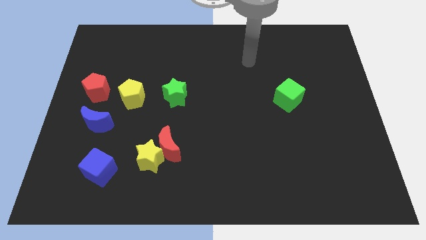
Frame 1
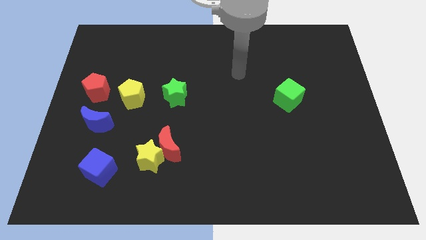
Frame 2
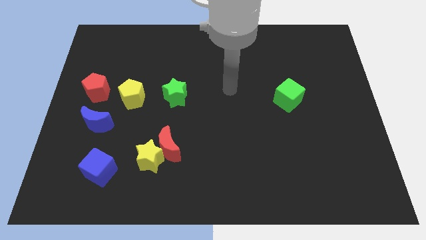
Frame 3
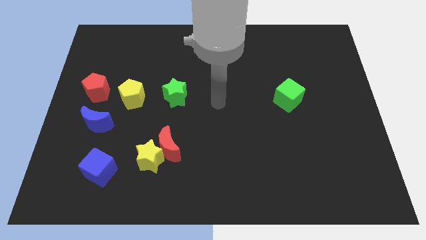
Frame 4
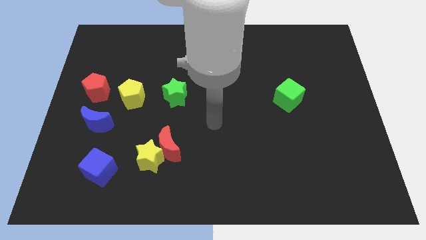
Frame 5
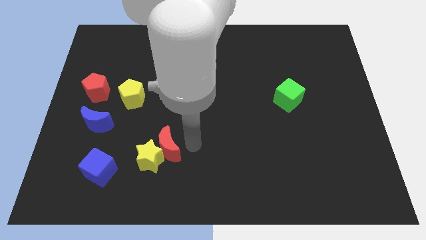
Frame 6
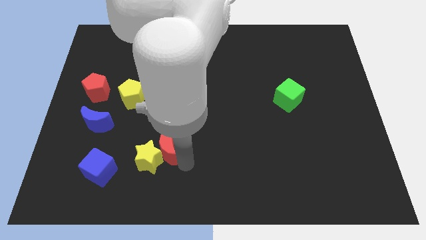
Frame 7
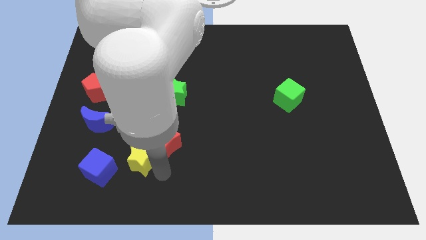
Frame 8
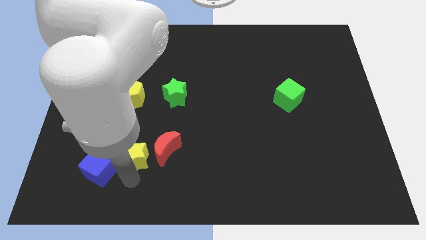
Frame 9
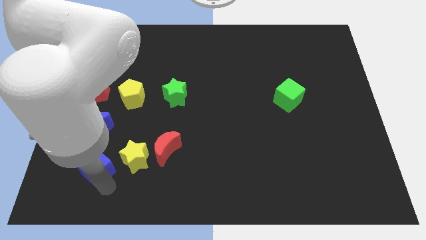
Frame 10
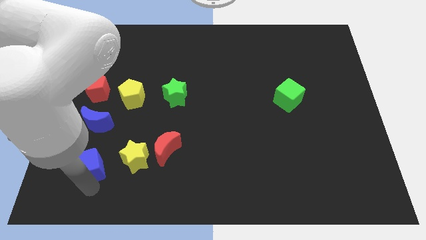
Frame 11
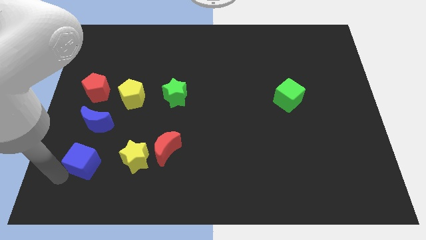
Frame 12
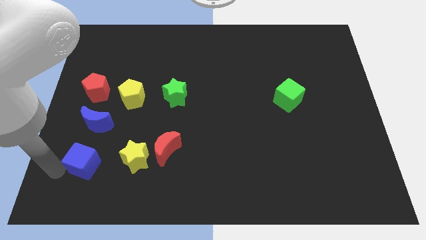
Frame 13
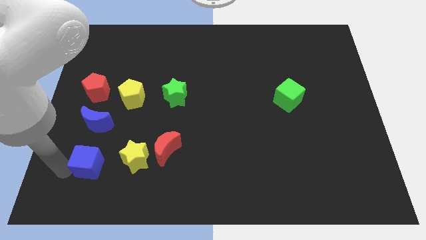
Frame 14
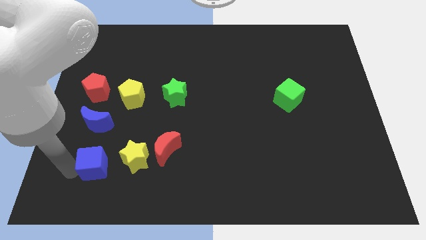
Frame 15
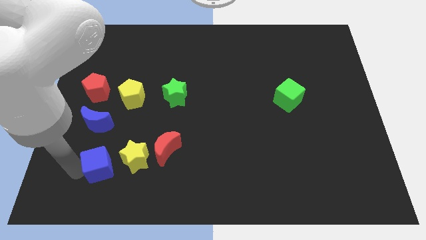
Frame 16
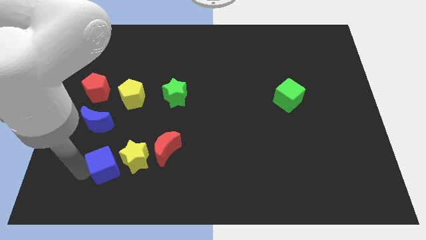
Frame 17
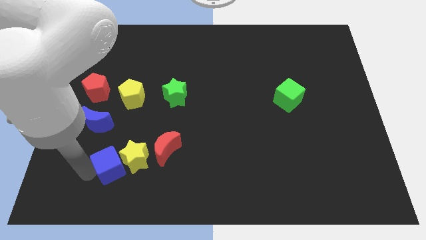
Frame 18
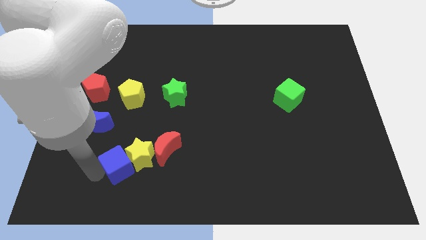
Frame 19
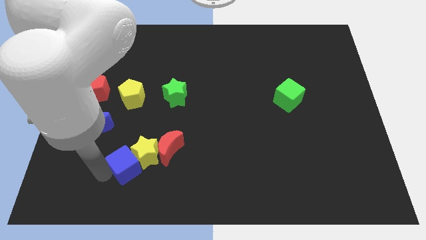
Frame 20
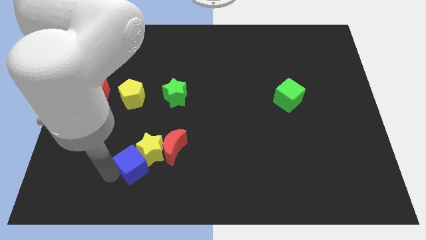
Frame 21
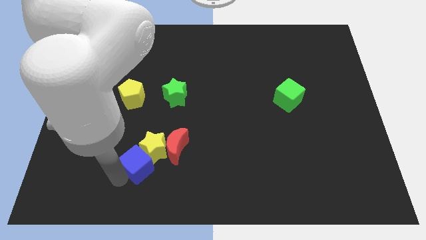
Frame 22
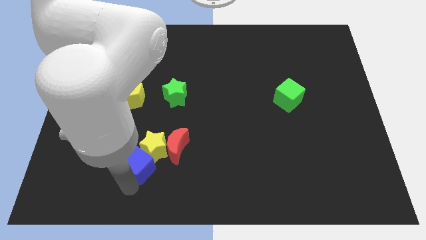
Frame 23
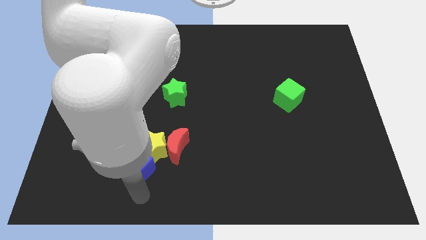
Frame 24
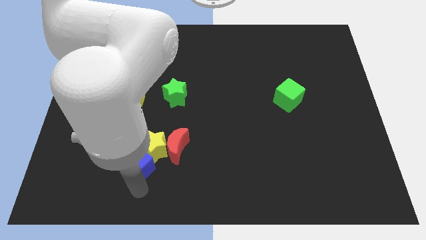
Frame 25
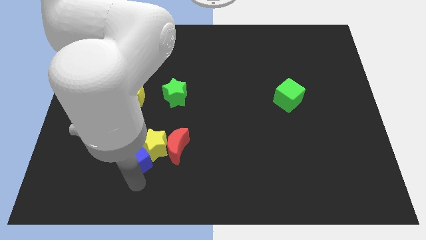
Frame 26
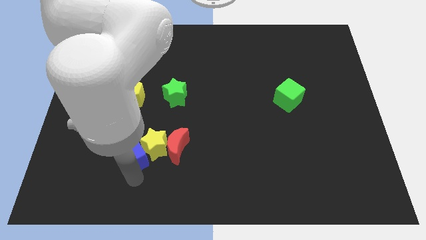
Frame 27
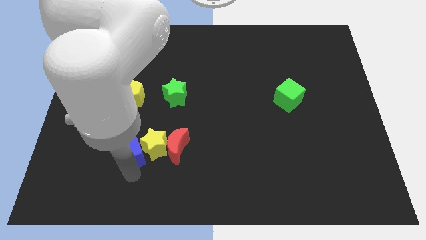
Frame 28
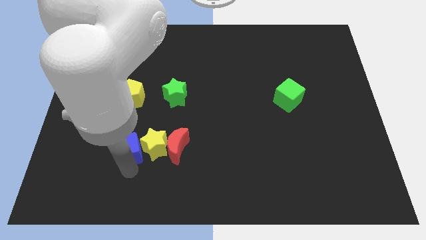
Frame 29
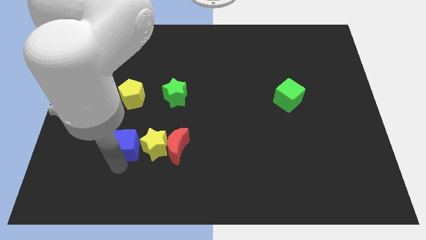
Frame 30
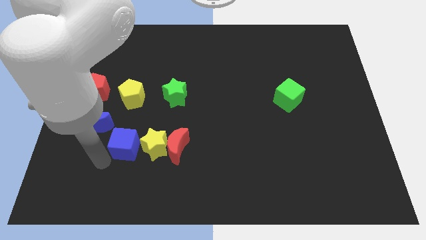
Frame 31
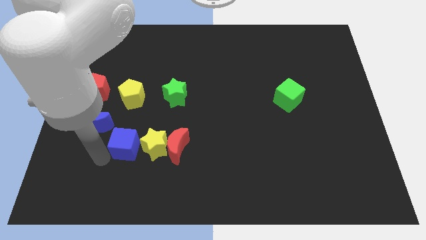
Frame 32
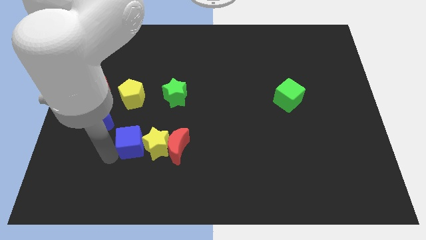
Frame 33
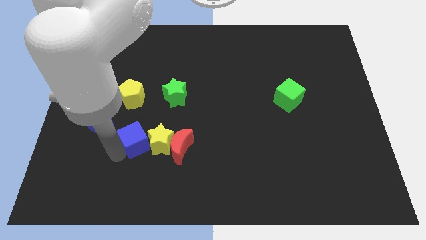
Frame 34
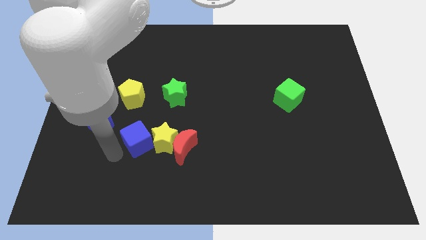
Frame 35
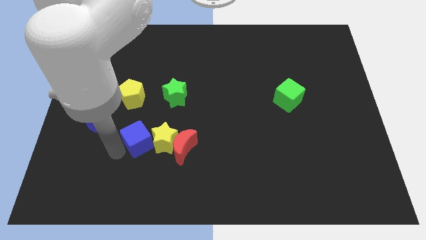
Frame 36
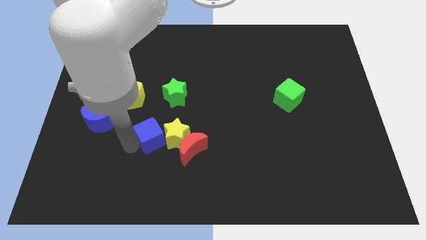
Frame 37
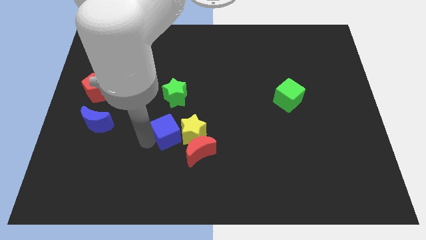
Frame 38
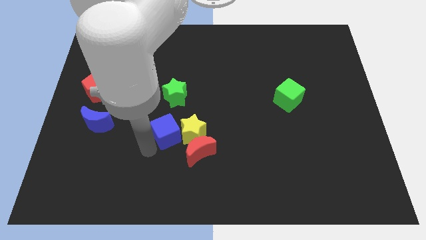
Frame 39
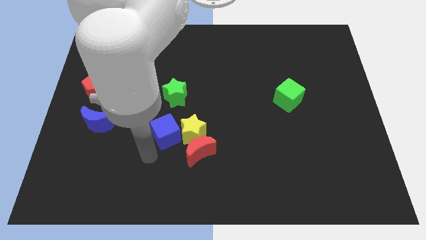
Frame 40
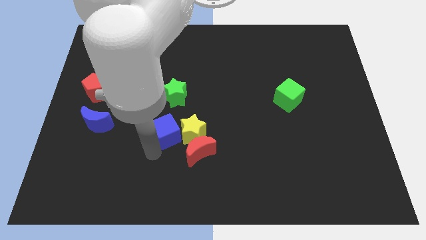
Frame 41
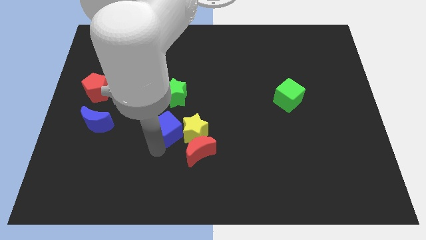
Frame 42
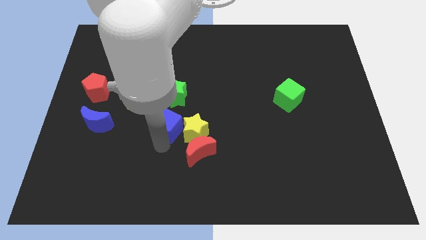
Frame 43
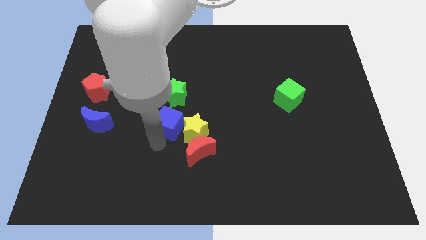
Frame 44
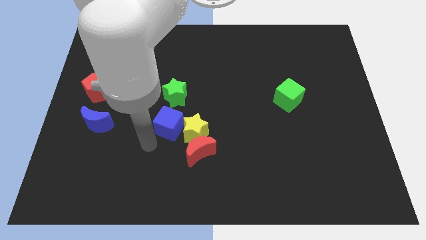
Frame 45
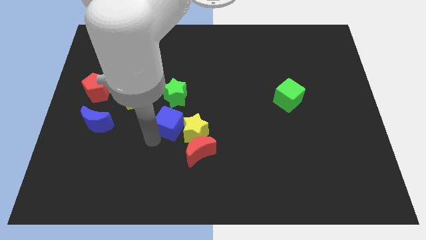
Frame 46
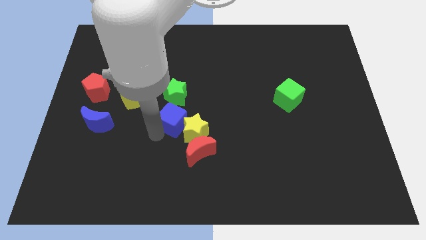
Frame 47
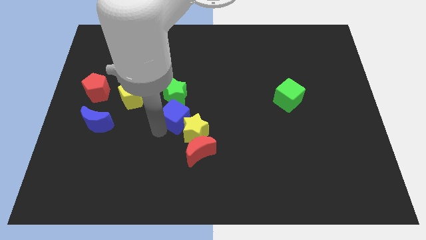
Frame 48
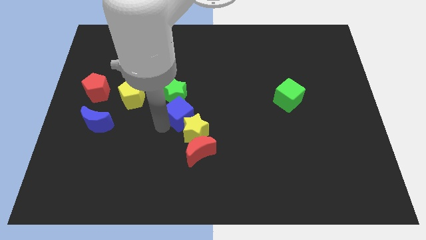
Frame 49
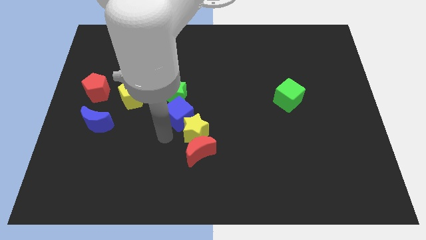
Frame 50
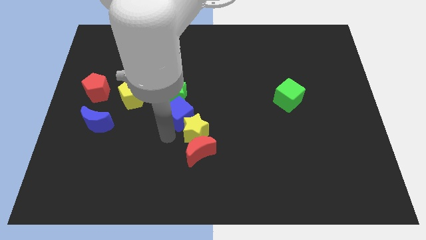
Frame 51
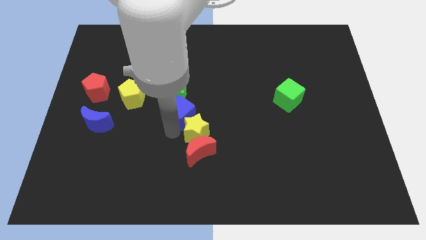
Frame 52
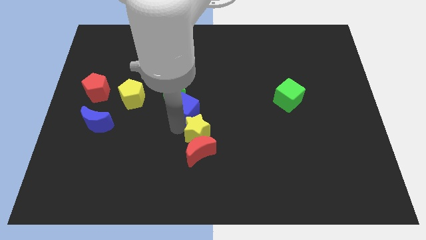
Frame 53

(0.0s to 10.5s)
move the blue cube to the right side of the yellow pentagon

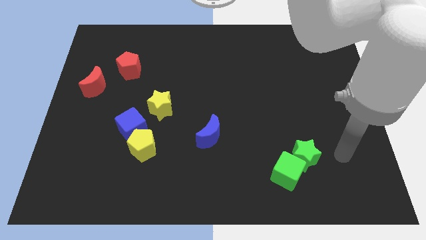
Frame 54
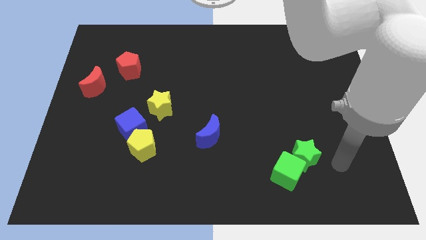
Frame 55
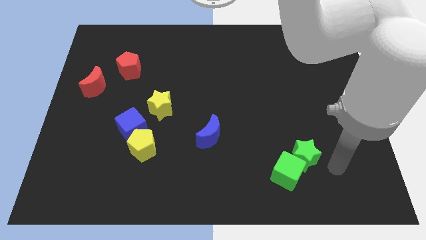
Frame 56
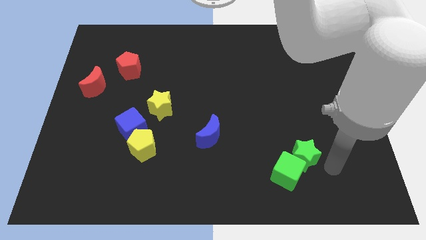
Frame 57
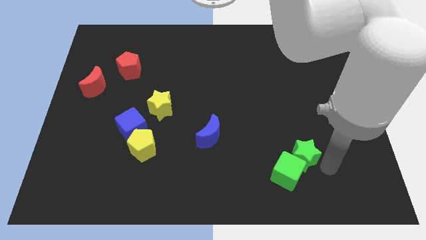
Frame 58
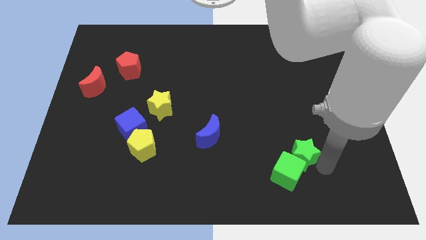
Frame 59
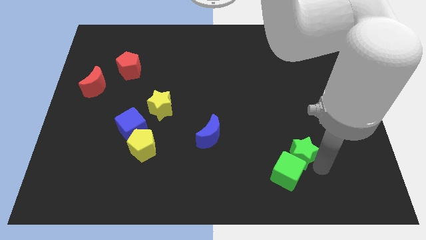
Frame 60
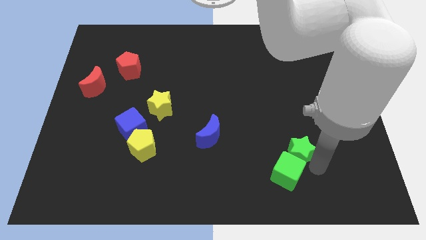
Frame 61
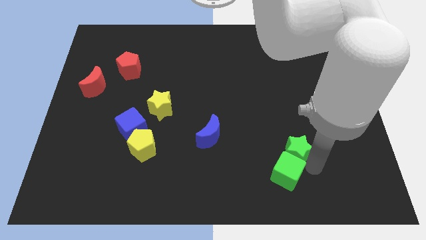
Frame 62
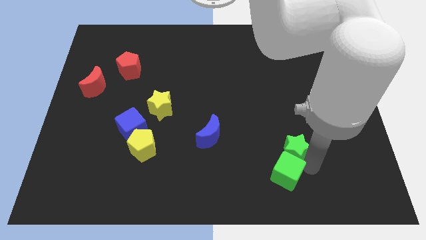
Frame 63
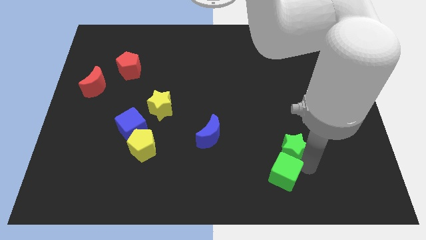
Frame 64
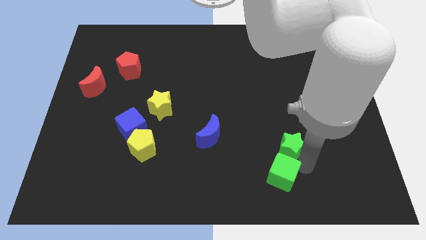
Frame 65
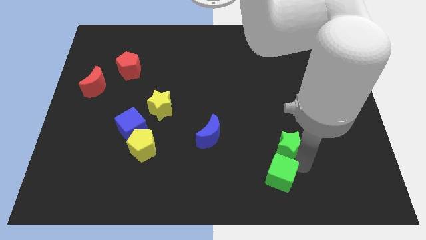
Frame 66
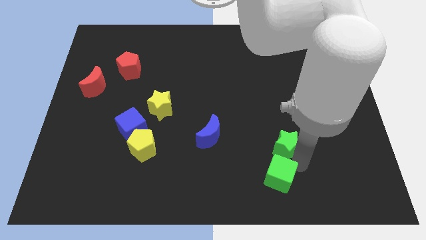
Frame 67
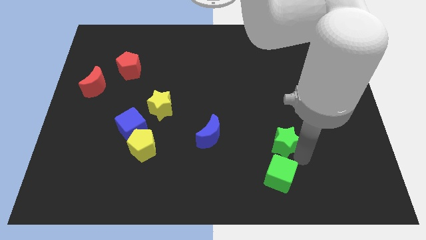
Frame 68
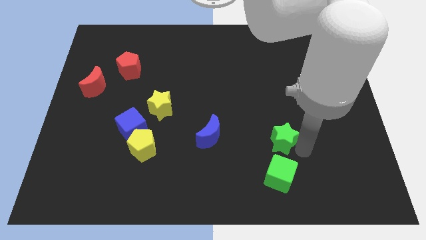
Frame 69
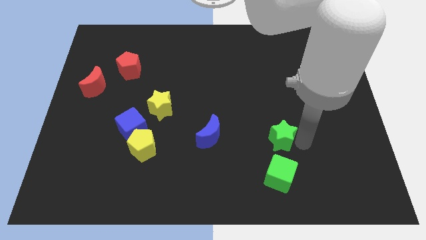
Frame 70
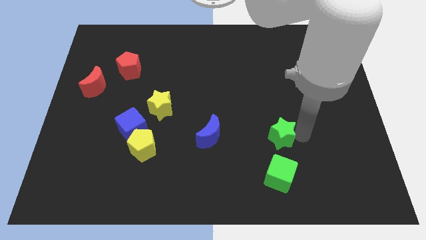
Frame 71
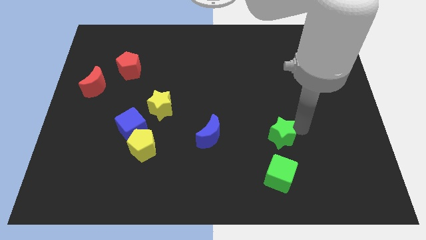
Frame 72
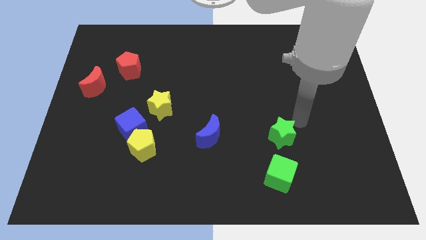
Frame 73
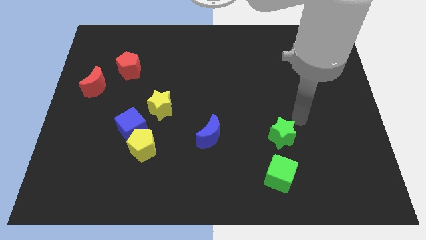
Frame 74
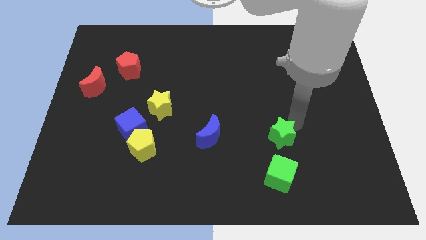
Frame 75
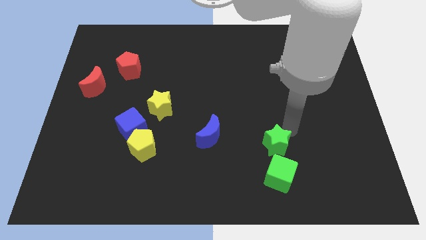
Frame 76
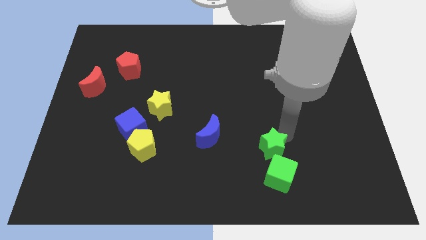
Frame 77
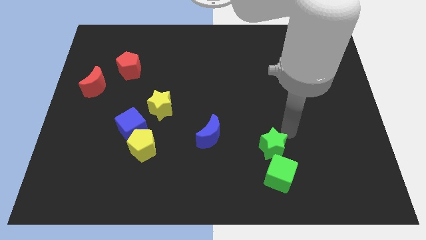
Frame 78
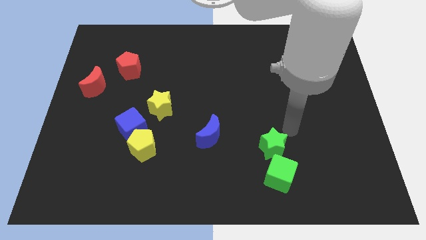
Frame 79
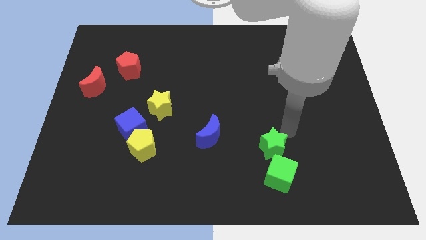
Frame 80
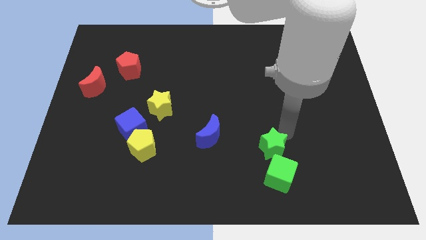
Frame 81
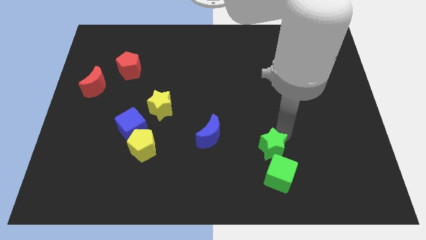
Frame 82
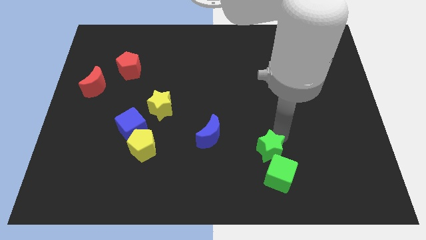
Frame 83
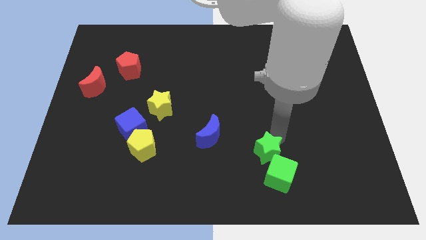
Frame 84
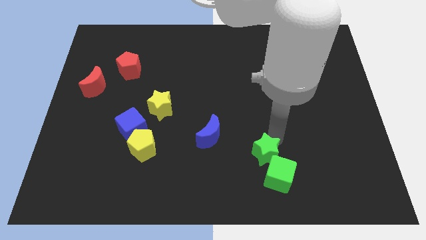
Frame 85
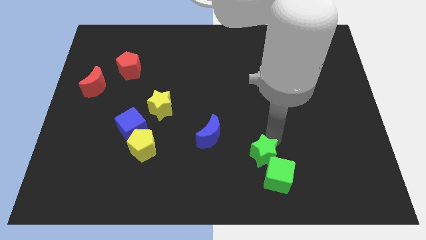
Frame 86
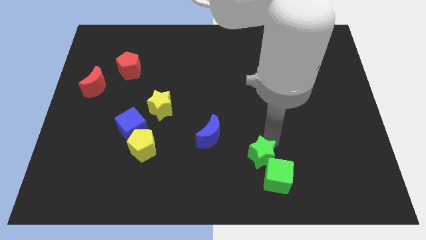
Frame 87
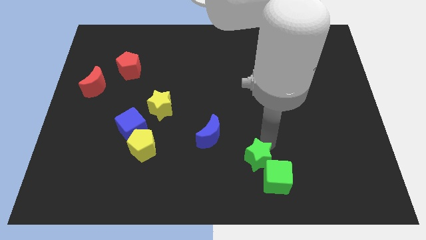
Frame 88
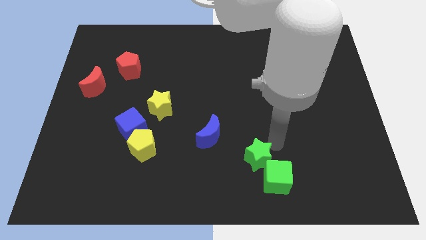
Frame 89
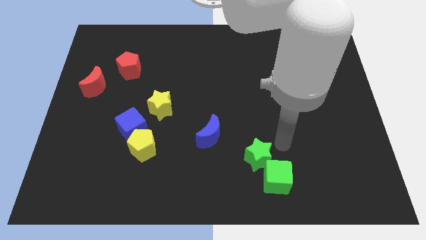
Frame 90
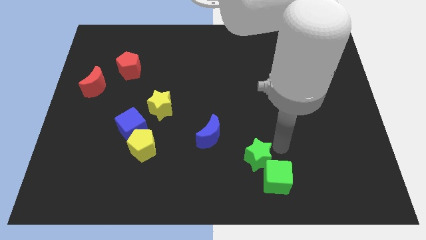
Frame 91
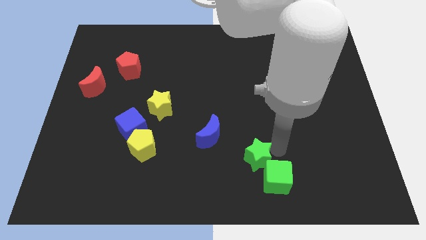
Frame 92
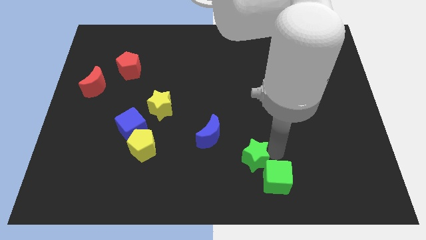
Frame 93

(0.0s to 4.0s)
move the green star just left of the green cube
